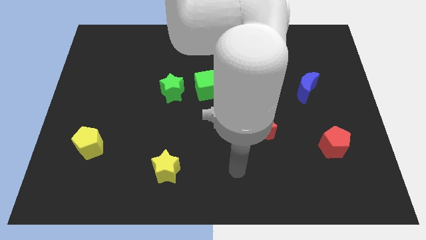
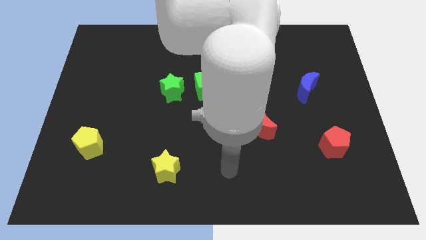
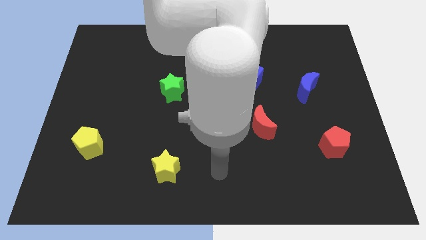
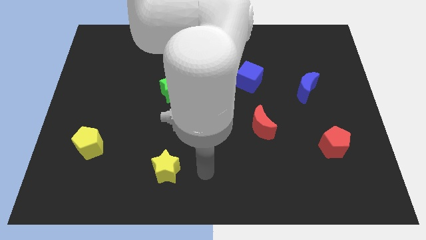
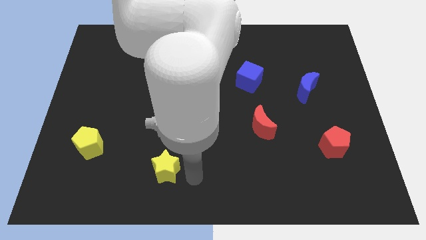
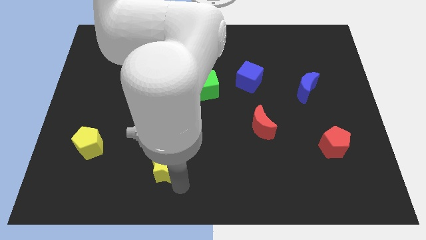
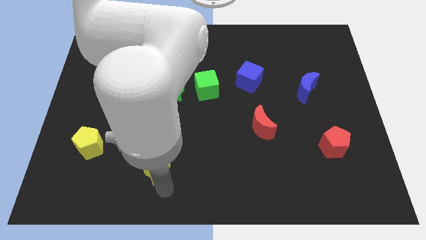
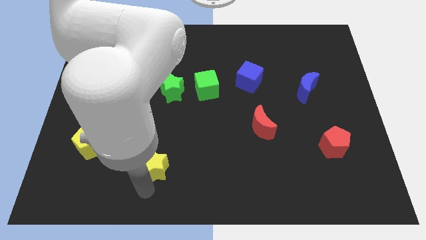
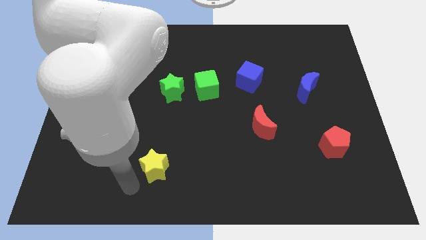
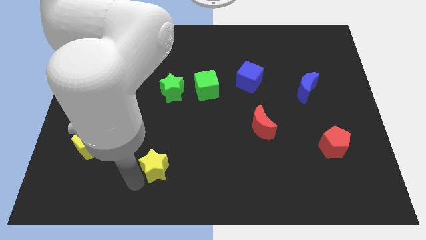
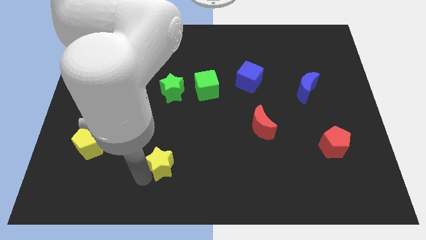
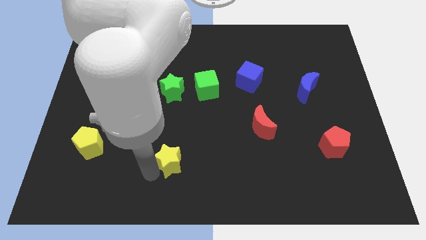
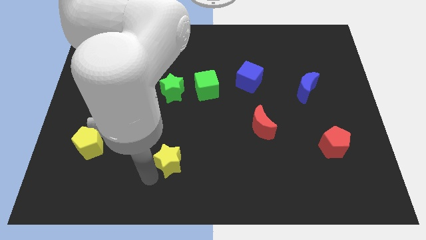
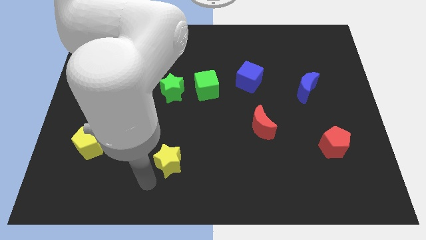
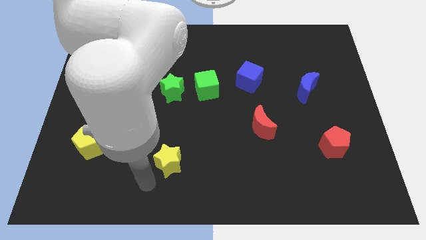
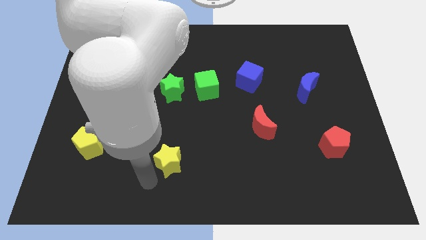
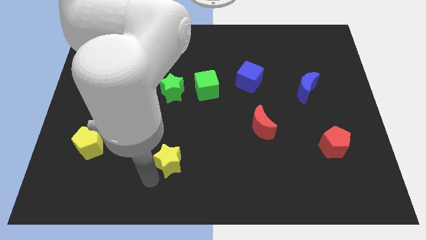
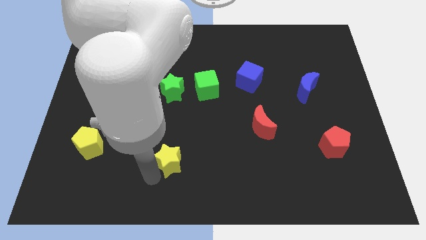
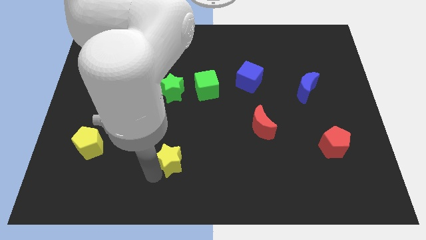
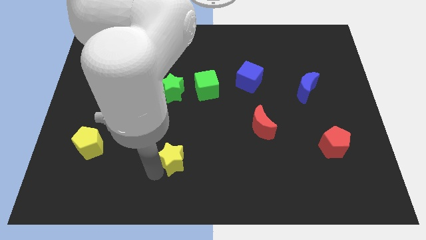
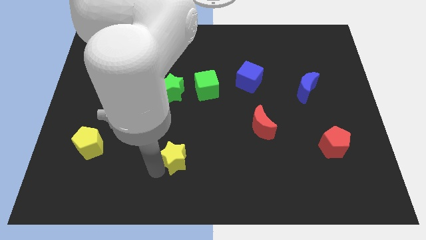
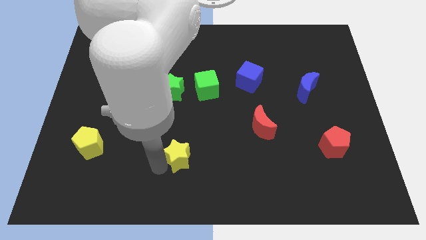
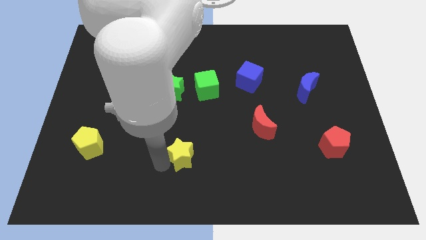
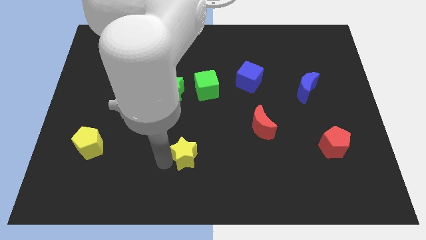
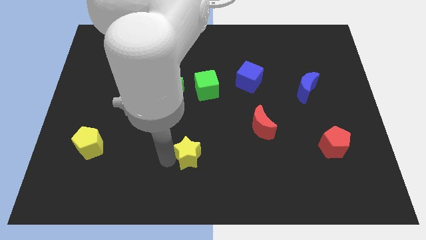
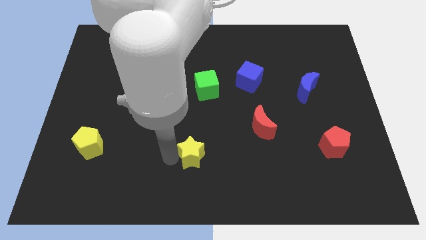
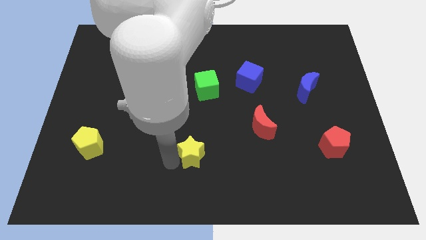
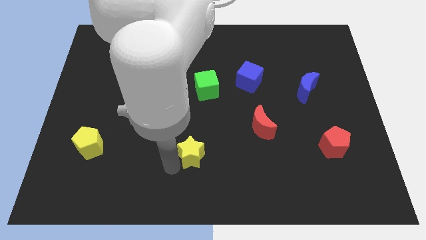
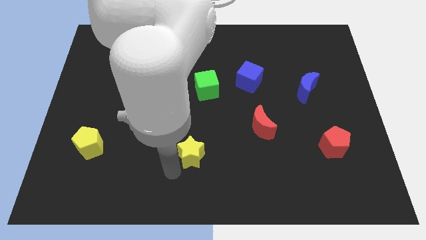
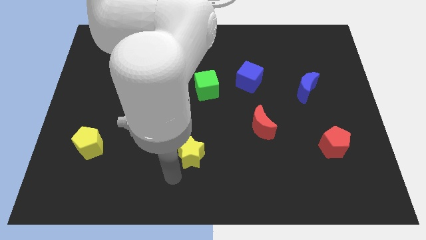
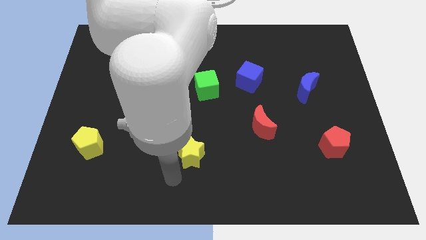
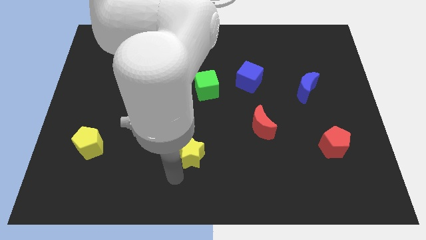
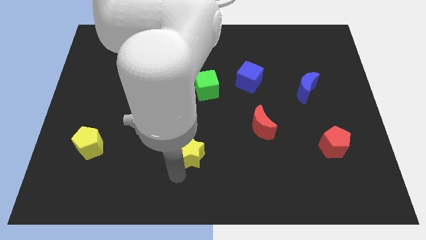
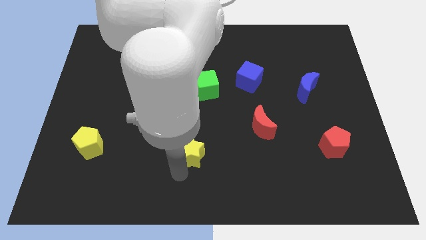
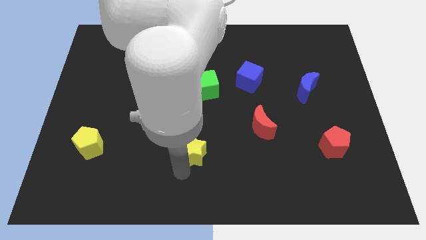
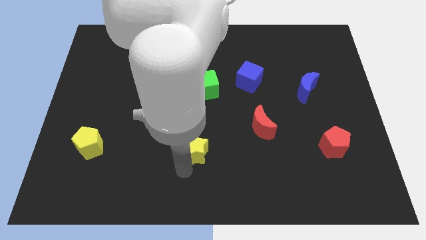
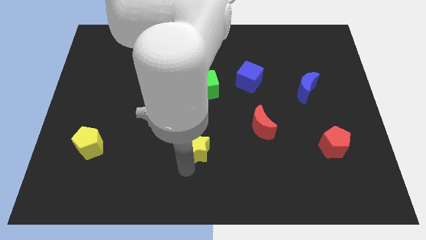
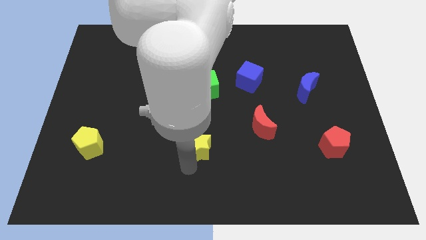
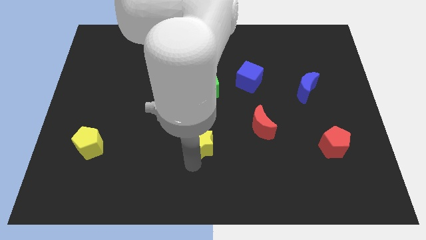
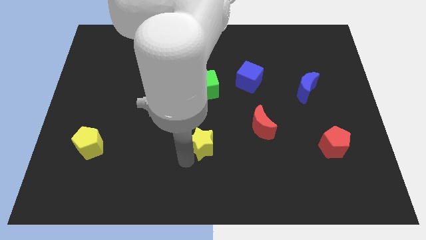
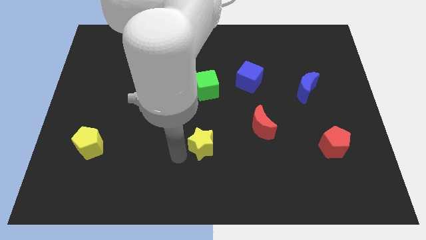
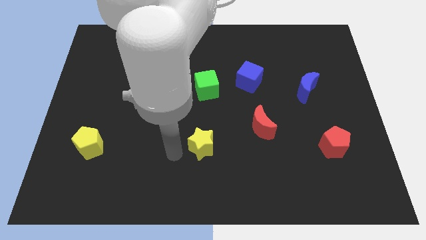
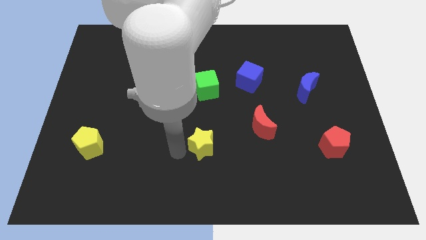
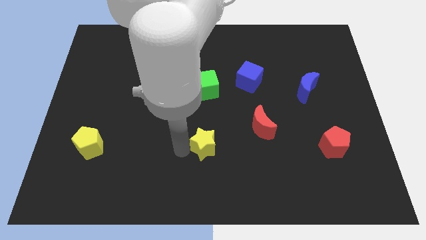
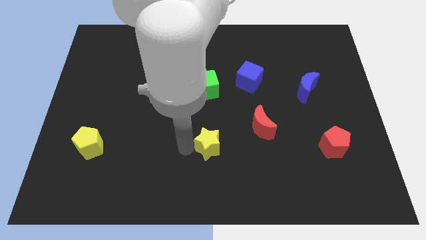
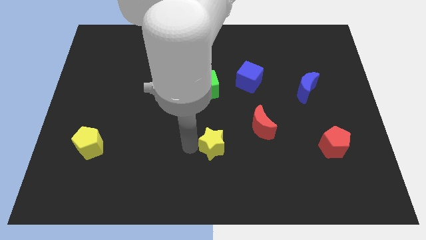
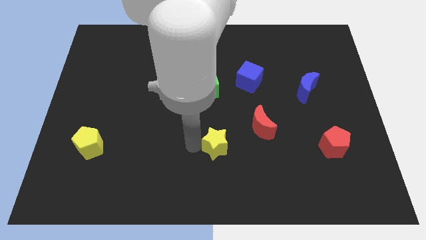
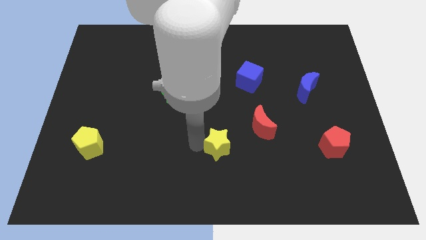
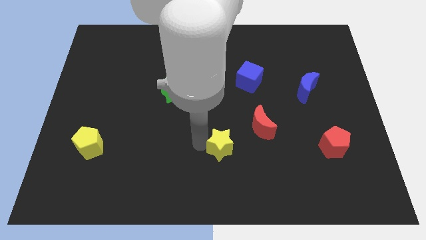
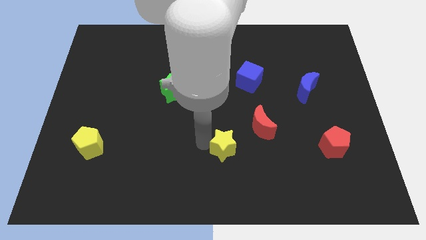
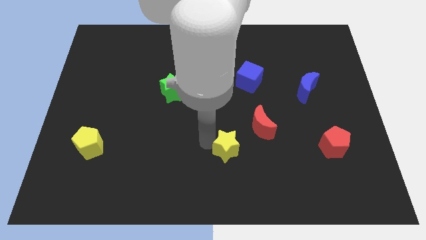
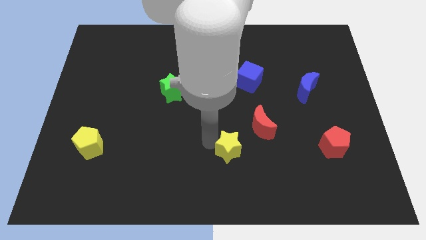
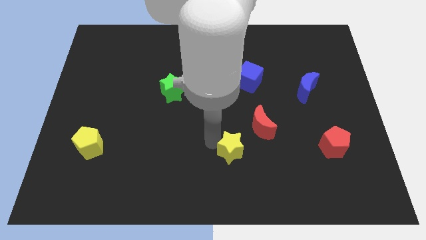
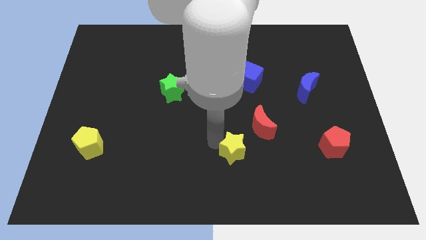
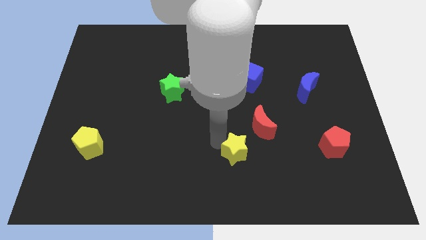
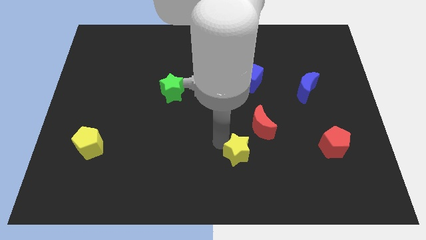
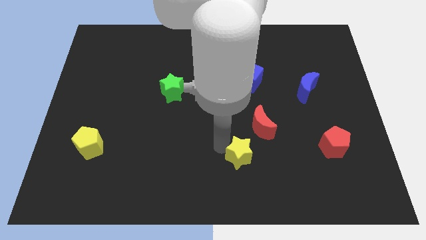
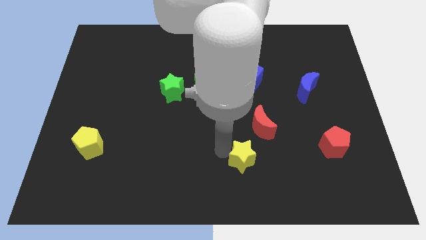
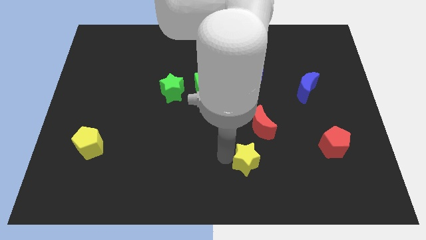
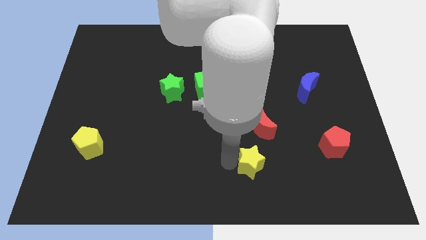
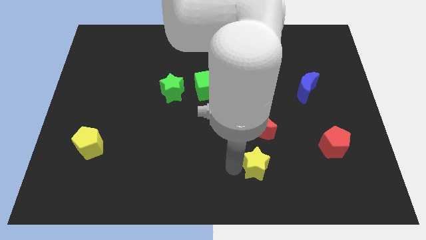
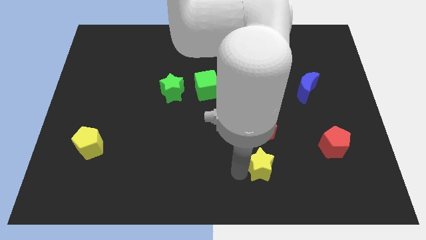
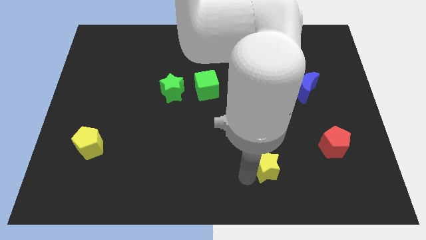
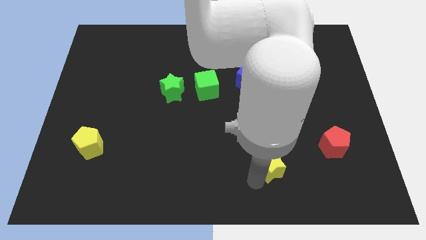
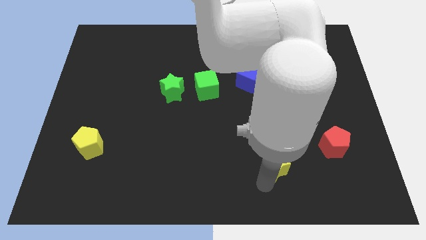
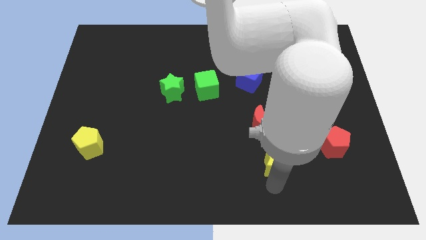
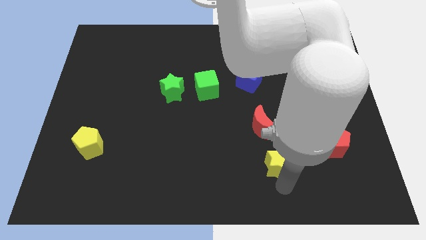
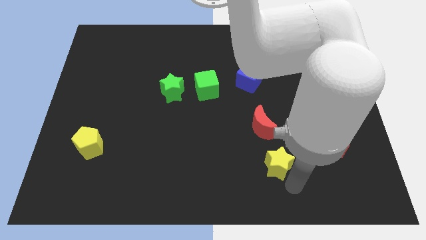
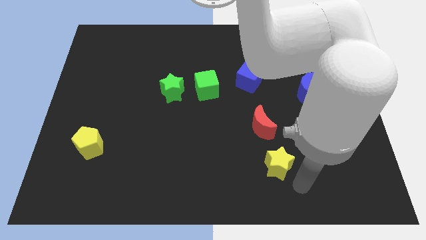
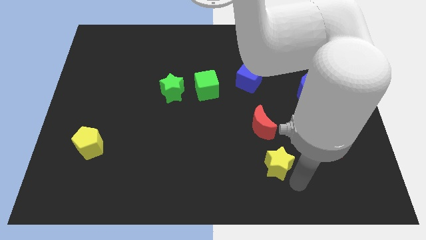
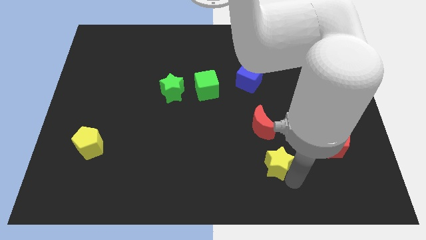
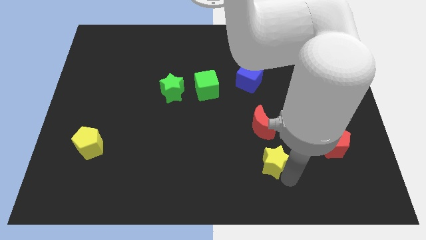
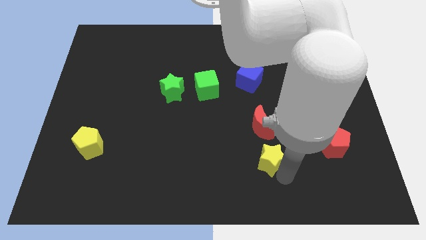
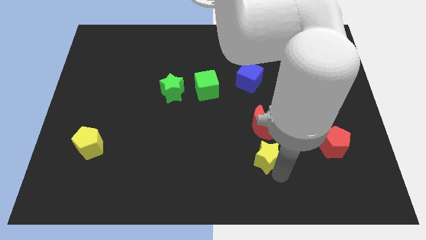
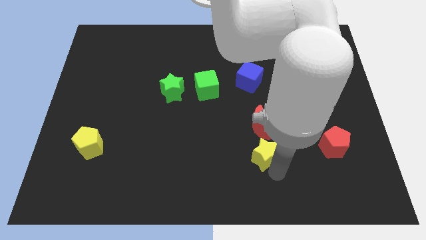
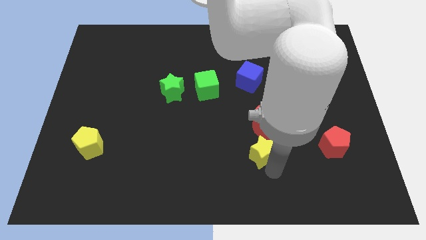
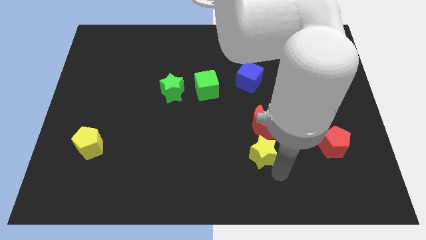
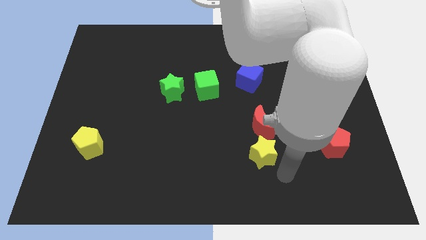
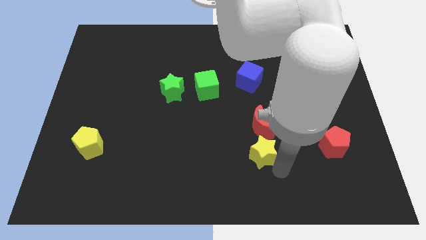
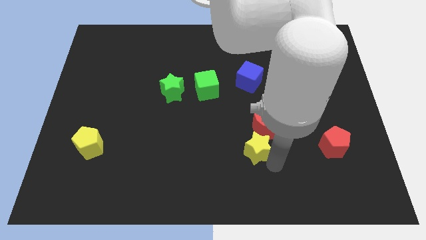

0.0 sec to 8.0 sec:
push the yellow star next to the red moon

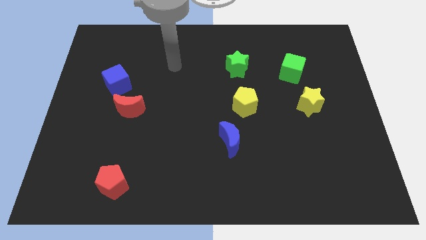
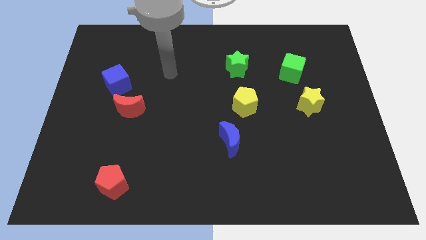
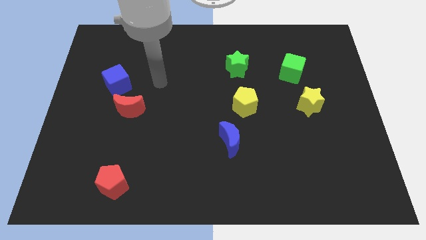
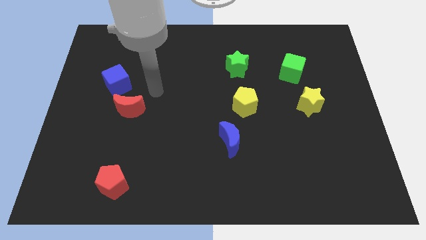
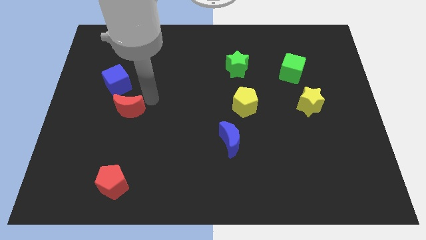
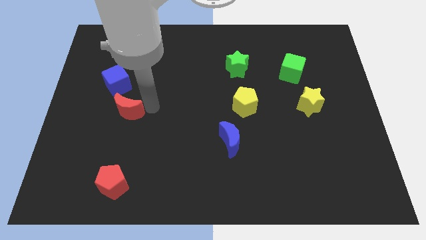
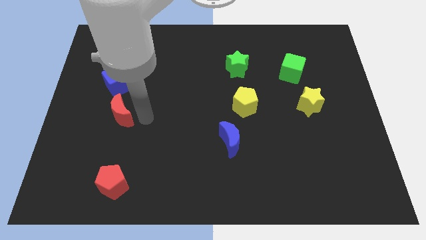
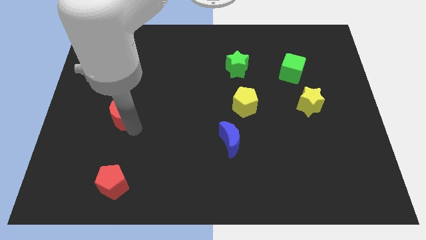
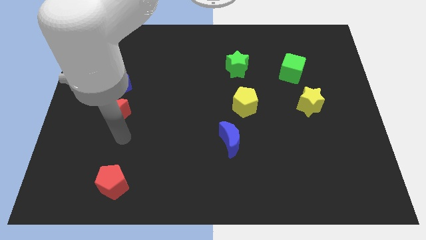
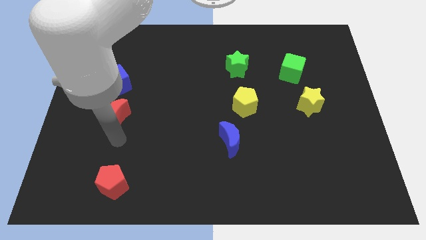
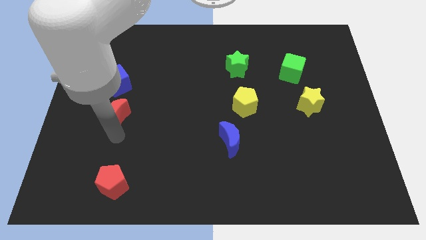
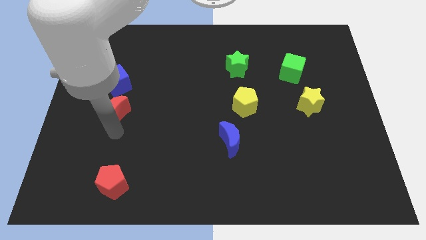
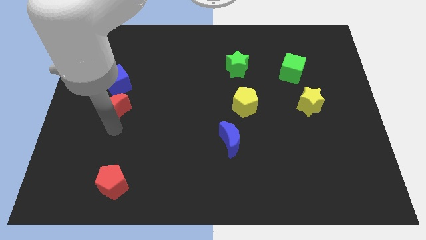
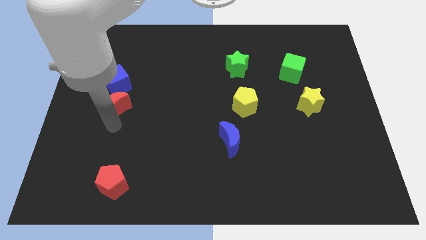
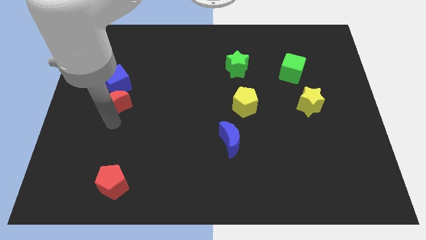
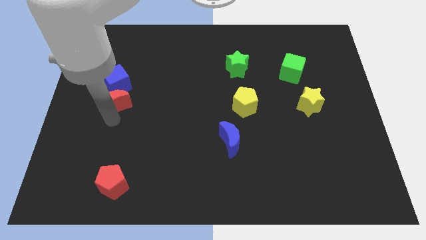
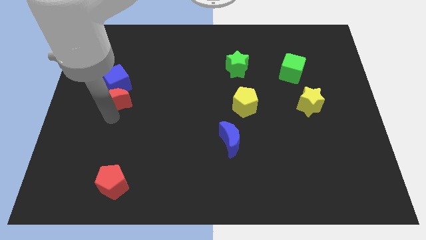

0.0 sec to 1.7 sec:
put the red moon to the blue cube
